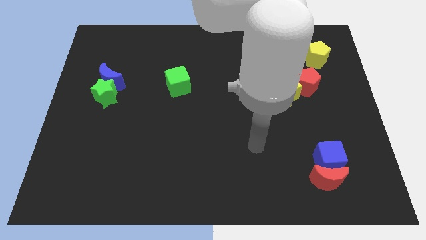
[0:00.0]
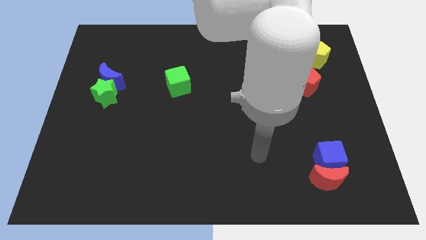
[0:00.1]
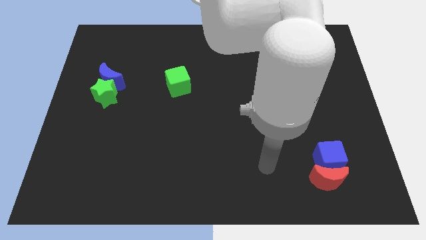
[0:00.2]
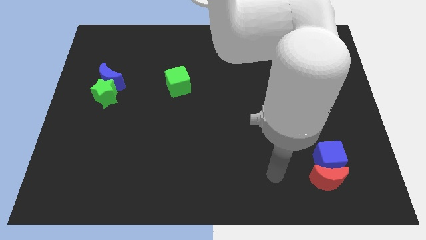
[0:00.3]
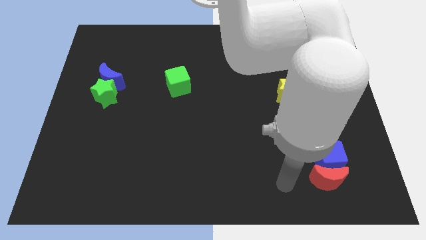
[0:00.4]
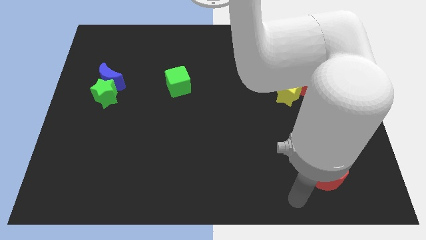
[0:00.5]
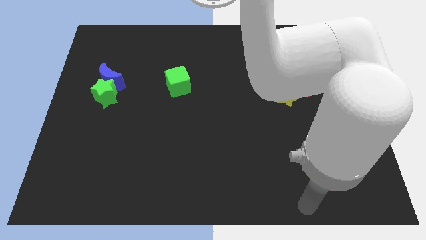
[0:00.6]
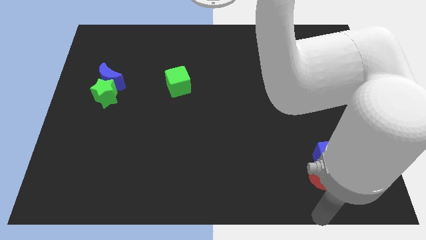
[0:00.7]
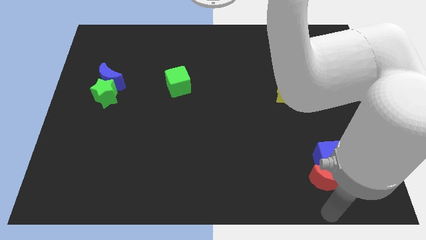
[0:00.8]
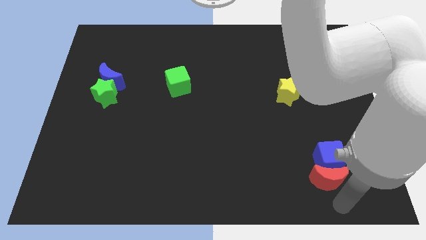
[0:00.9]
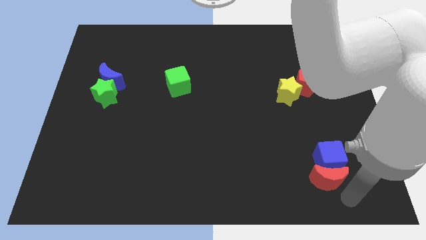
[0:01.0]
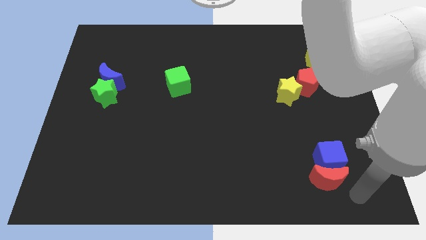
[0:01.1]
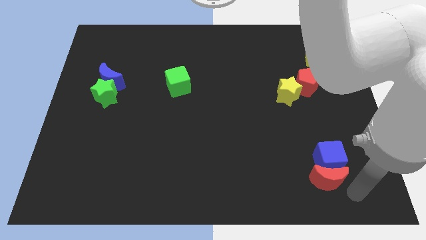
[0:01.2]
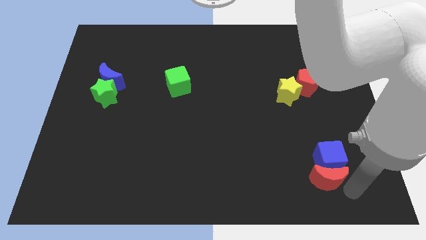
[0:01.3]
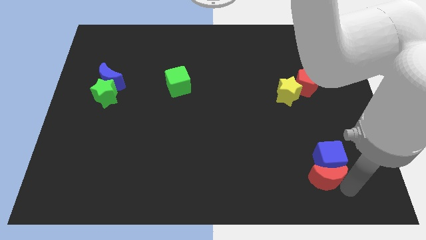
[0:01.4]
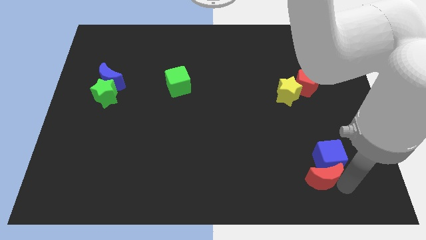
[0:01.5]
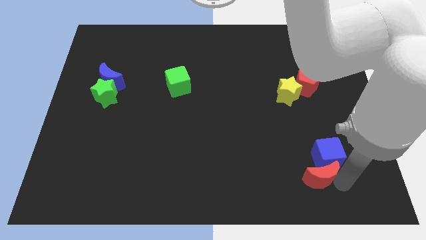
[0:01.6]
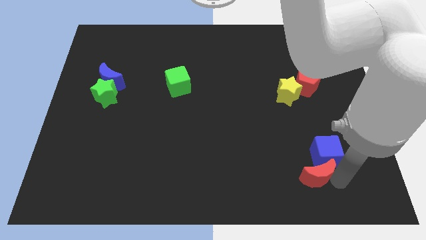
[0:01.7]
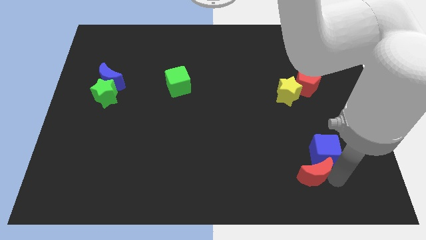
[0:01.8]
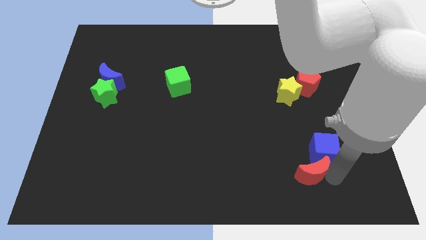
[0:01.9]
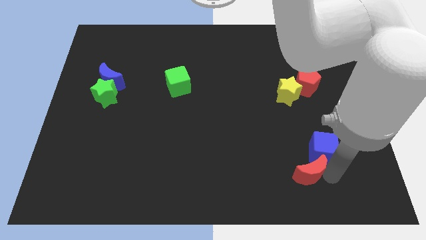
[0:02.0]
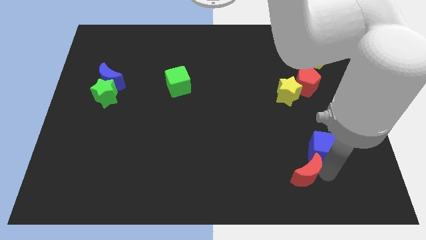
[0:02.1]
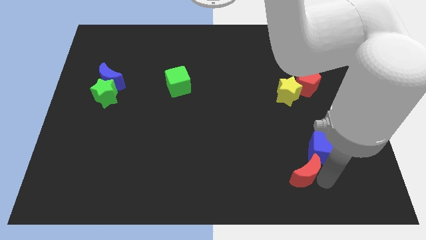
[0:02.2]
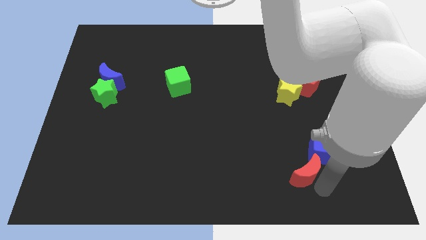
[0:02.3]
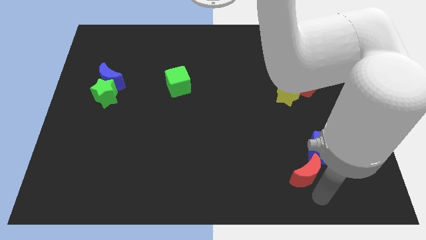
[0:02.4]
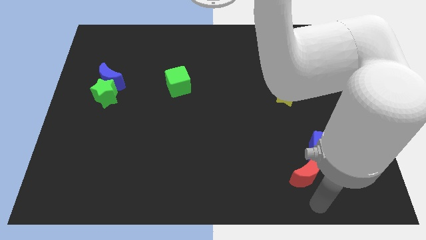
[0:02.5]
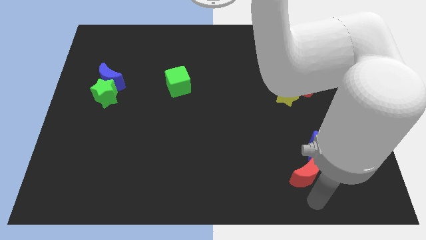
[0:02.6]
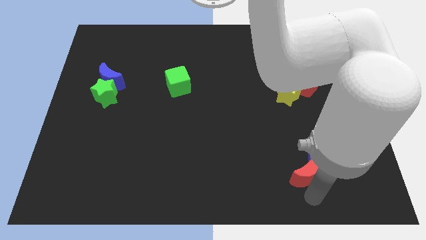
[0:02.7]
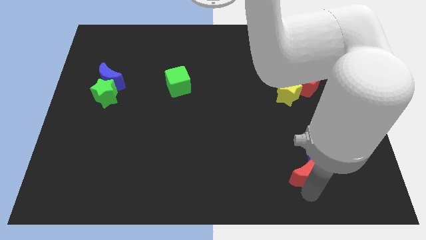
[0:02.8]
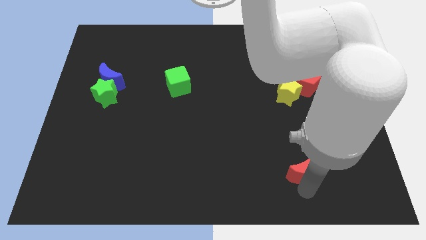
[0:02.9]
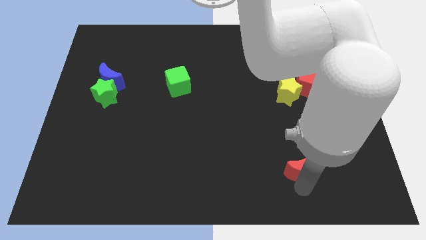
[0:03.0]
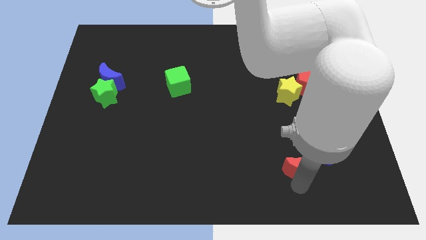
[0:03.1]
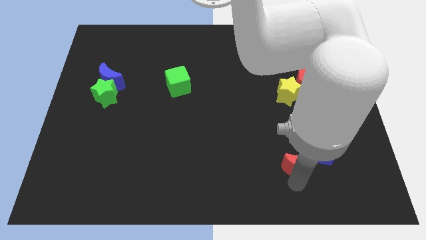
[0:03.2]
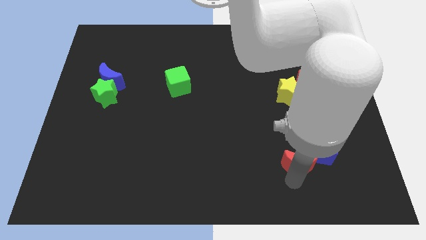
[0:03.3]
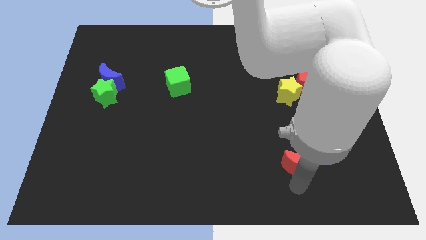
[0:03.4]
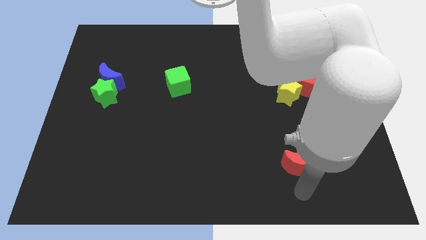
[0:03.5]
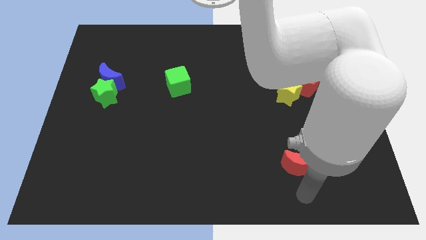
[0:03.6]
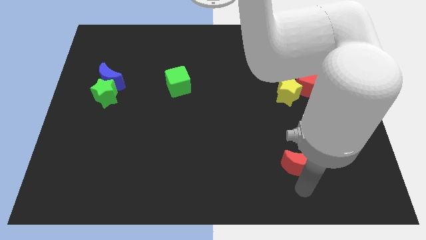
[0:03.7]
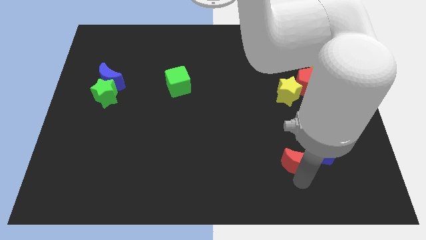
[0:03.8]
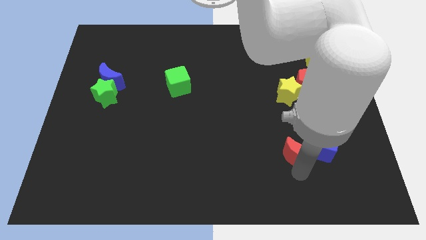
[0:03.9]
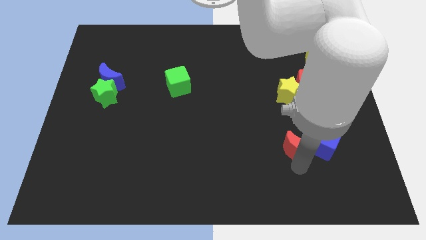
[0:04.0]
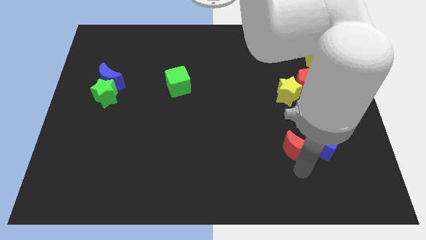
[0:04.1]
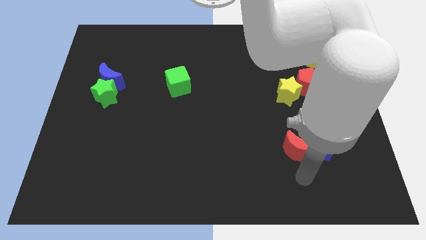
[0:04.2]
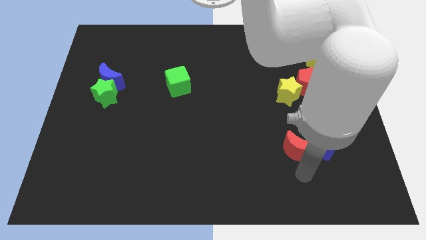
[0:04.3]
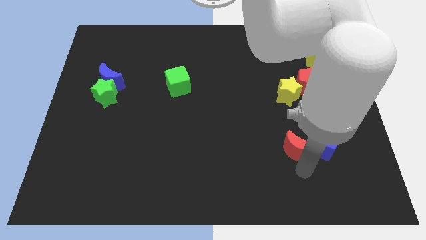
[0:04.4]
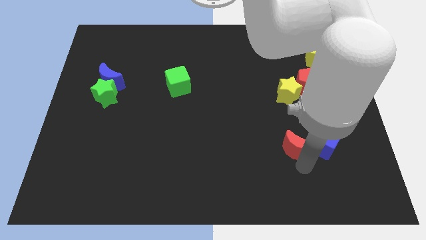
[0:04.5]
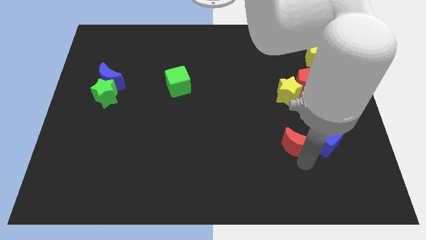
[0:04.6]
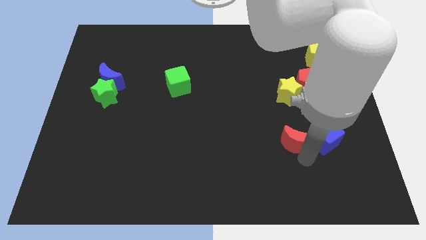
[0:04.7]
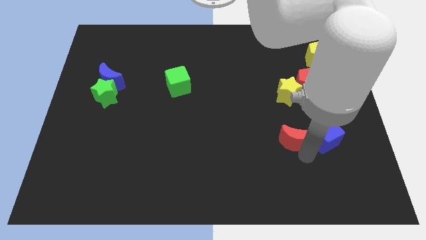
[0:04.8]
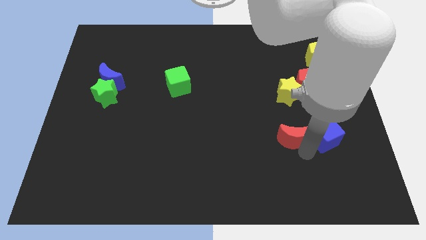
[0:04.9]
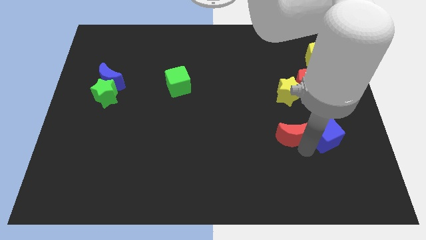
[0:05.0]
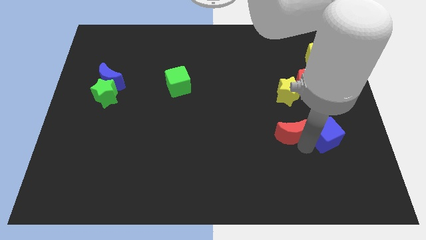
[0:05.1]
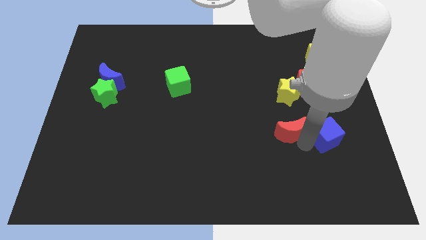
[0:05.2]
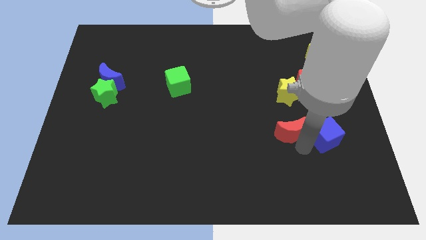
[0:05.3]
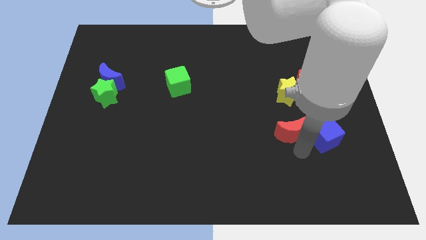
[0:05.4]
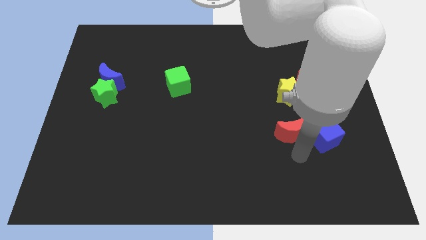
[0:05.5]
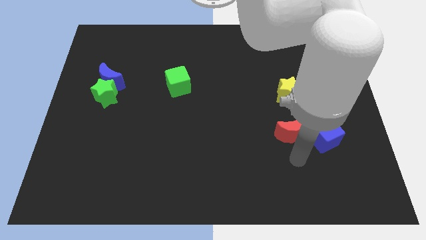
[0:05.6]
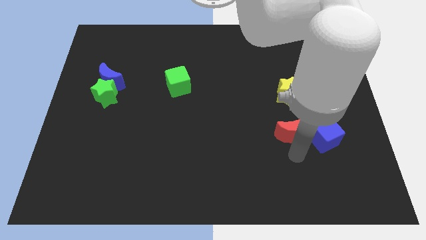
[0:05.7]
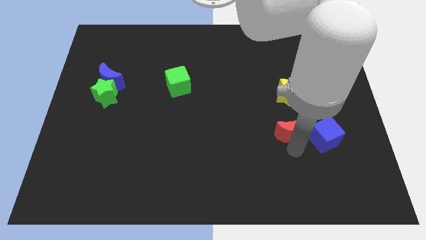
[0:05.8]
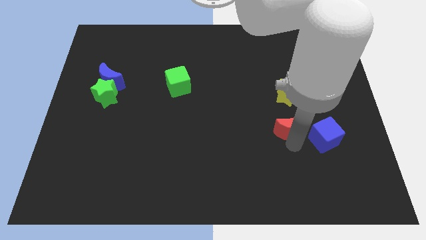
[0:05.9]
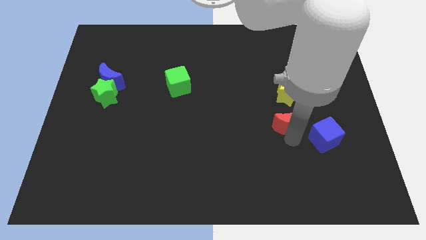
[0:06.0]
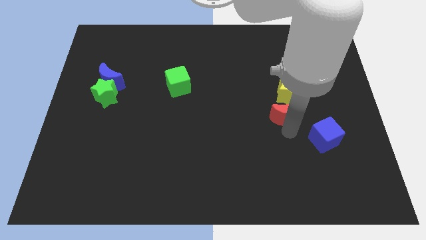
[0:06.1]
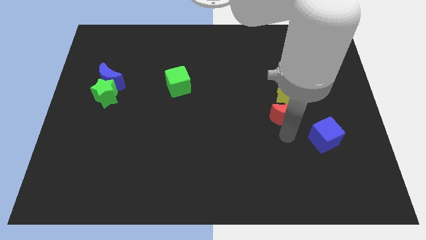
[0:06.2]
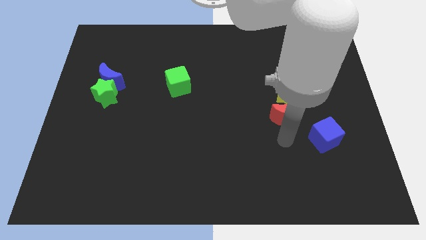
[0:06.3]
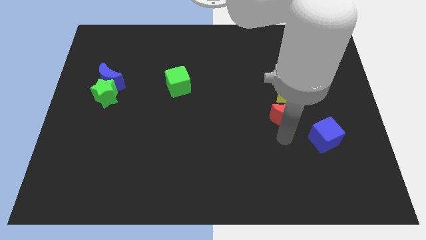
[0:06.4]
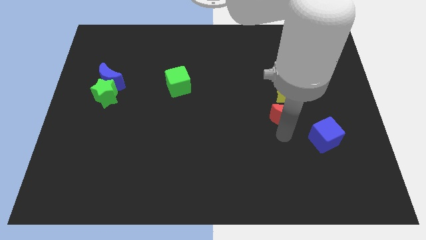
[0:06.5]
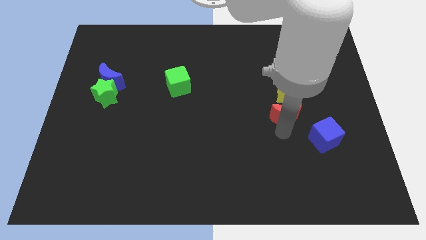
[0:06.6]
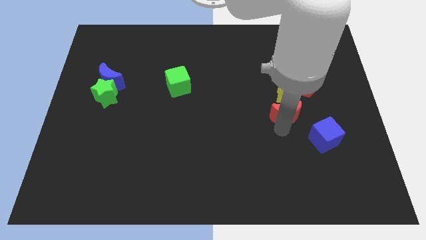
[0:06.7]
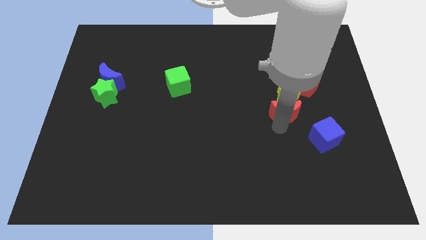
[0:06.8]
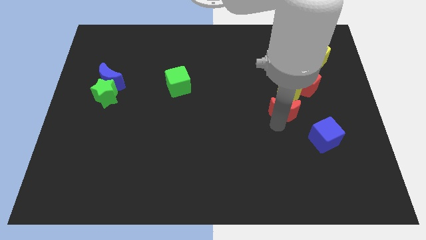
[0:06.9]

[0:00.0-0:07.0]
push the red moon close to the yellow star
